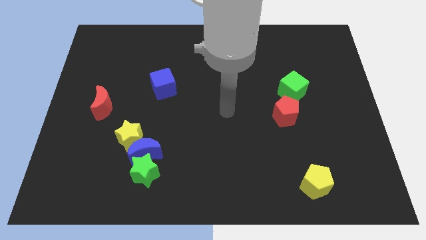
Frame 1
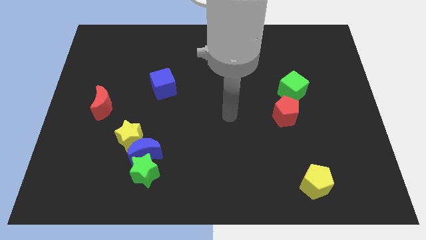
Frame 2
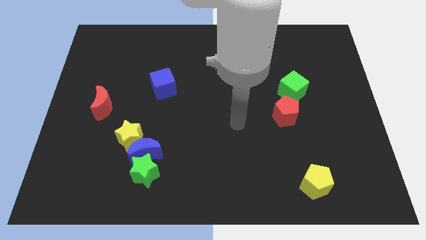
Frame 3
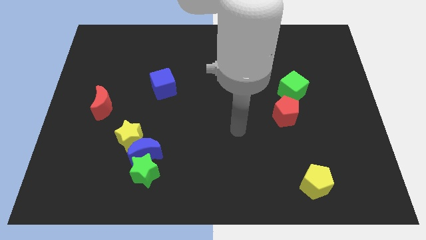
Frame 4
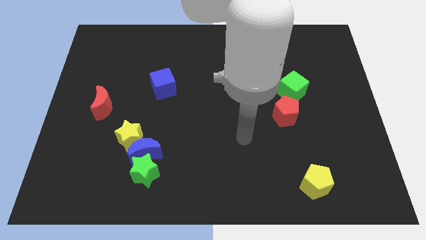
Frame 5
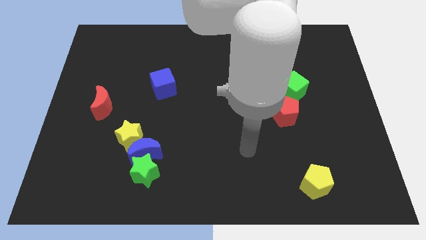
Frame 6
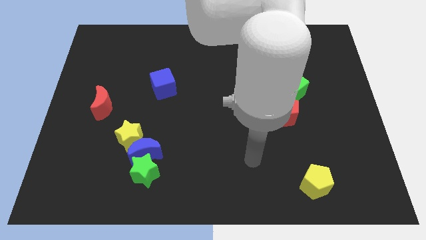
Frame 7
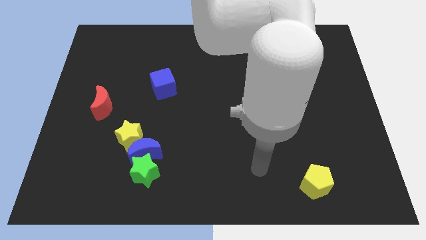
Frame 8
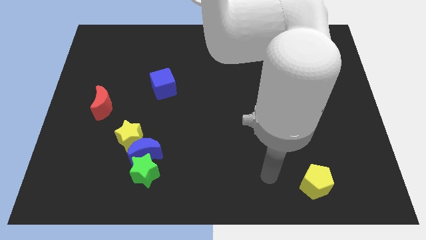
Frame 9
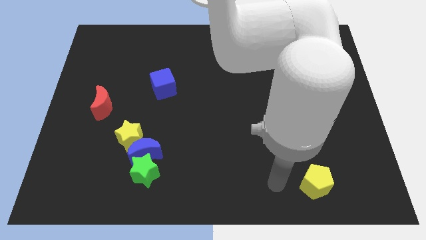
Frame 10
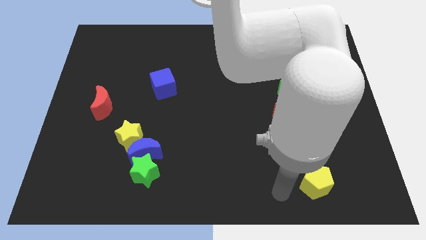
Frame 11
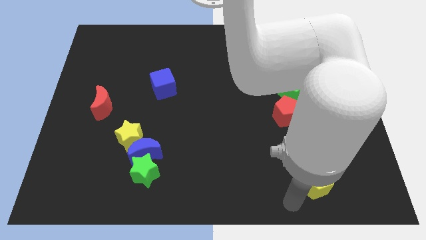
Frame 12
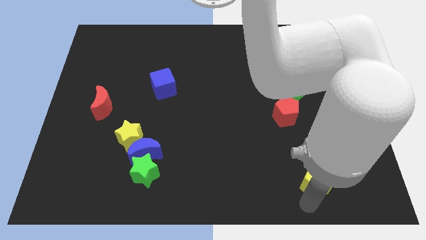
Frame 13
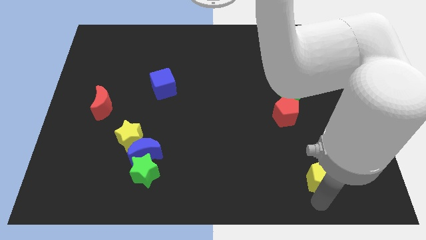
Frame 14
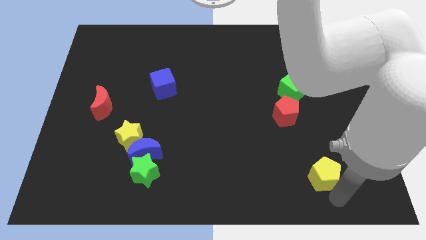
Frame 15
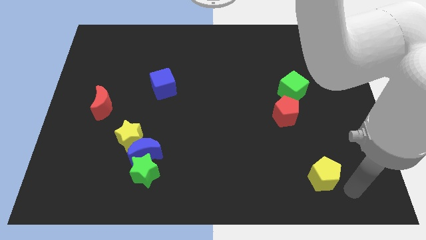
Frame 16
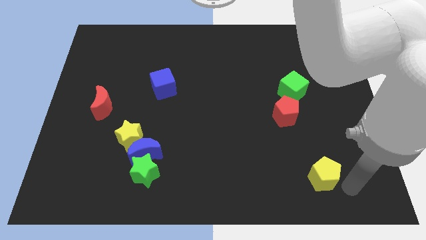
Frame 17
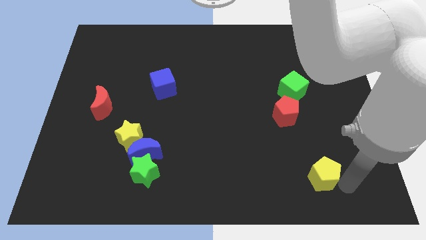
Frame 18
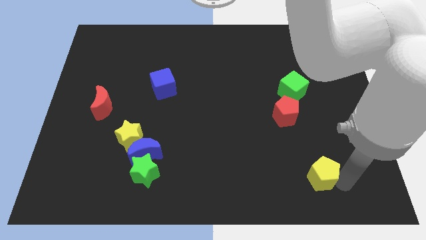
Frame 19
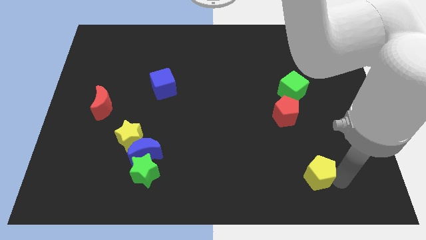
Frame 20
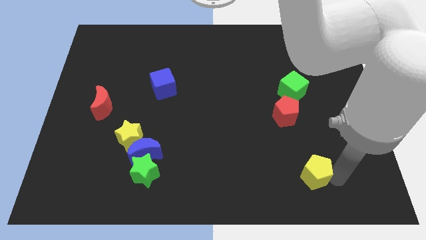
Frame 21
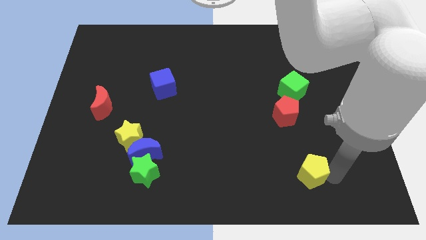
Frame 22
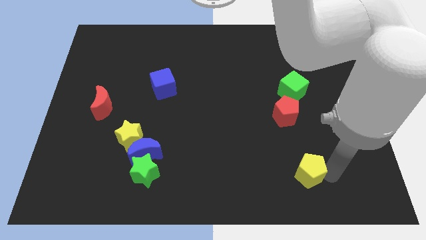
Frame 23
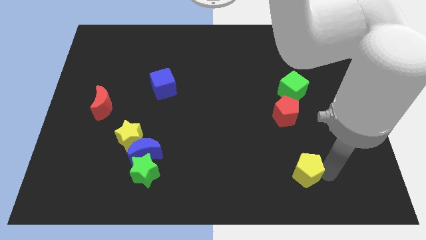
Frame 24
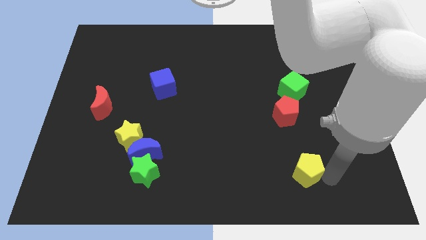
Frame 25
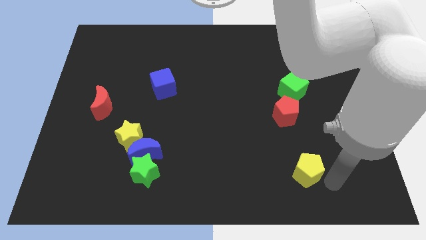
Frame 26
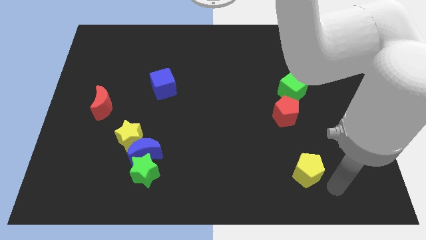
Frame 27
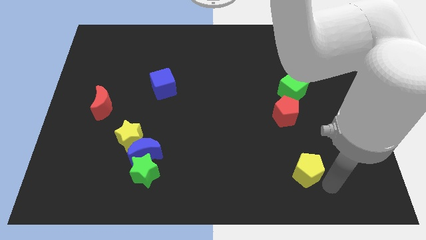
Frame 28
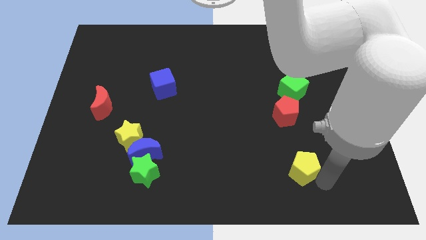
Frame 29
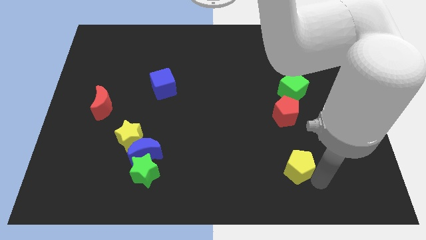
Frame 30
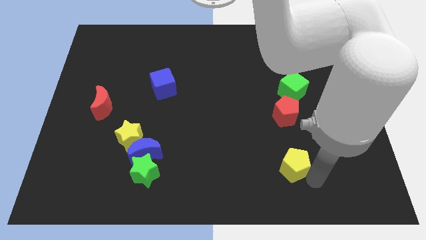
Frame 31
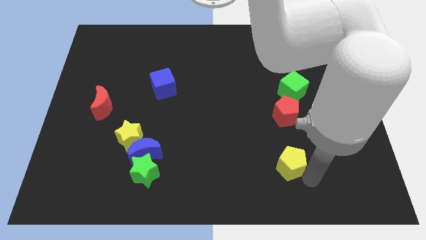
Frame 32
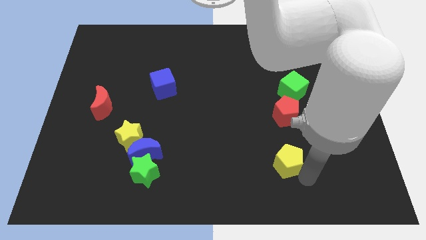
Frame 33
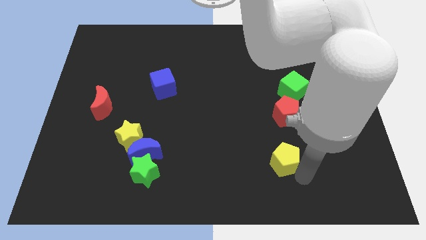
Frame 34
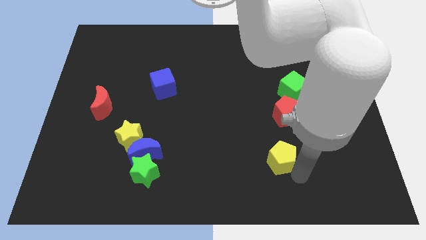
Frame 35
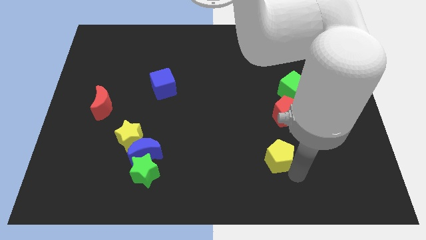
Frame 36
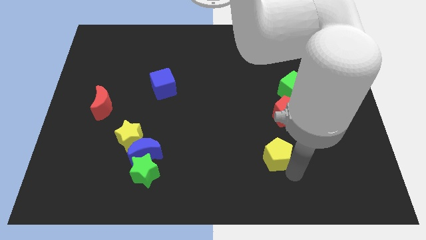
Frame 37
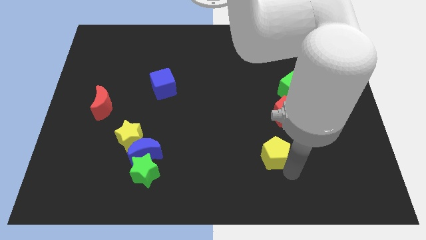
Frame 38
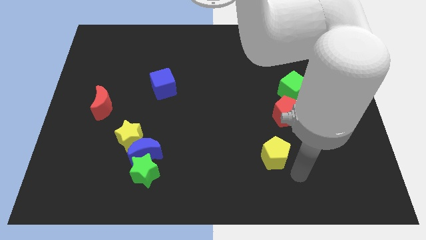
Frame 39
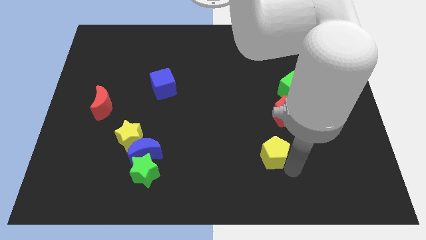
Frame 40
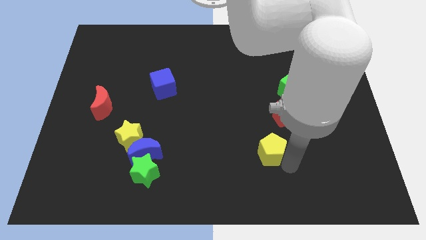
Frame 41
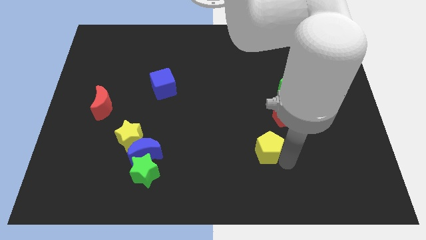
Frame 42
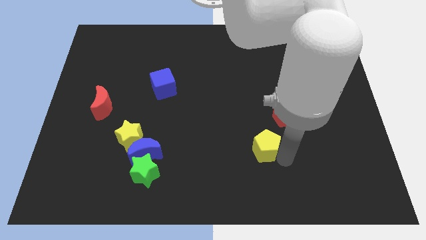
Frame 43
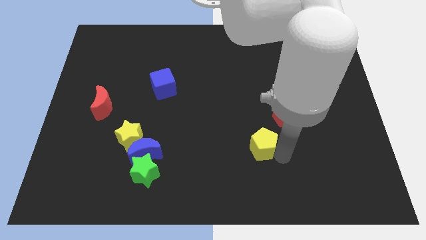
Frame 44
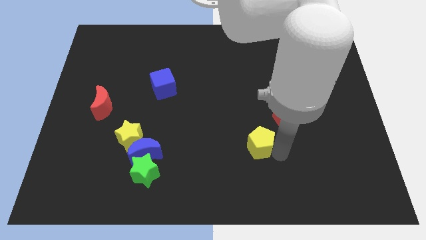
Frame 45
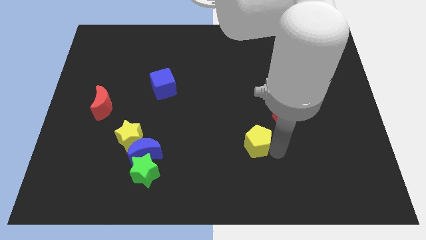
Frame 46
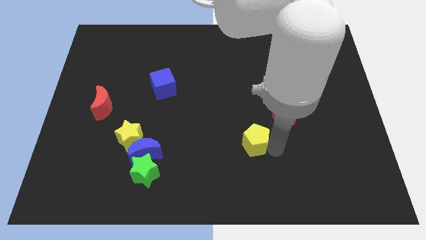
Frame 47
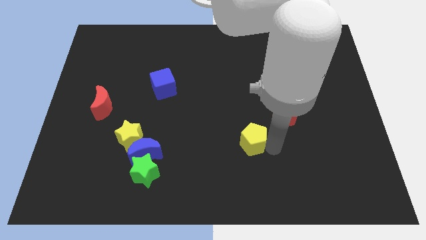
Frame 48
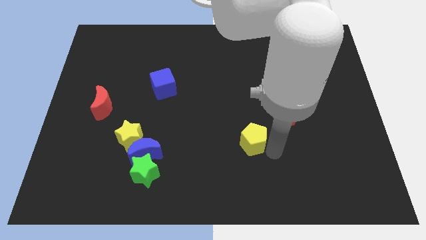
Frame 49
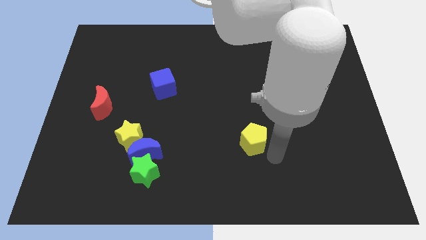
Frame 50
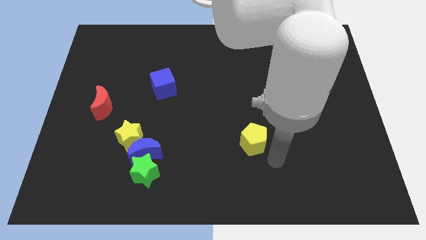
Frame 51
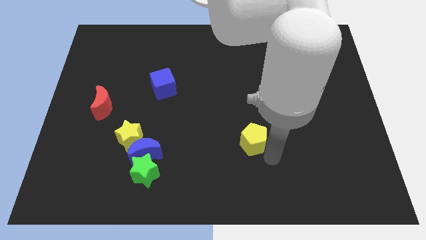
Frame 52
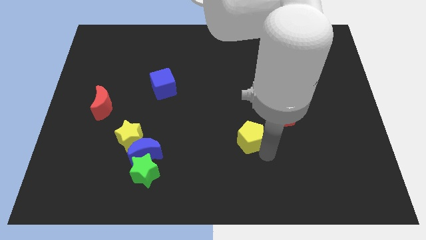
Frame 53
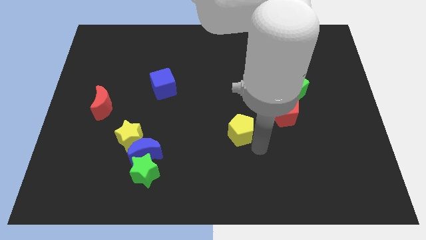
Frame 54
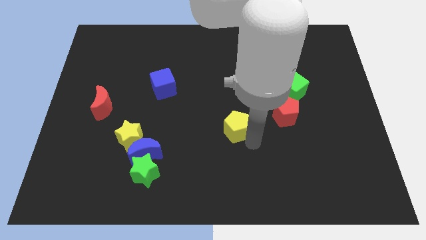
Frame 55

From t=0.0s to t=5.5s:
move the yellow pentagon upwards and then left

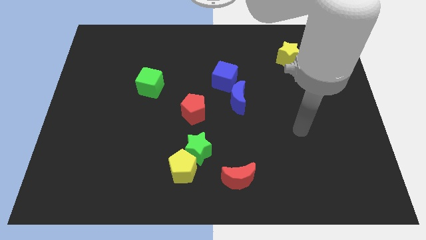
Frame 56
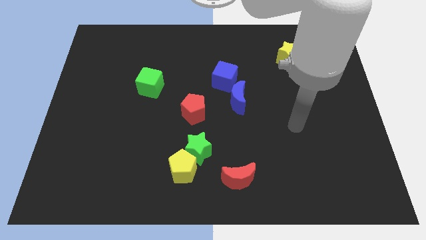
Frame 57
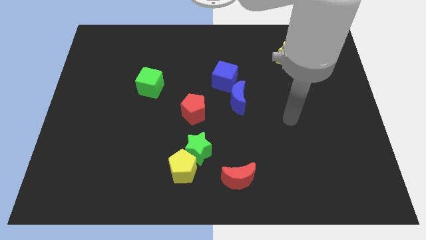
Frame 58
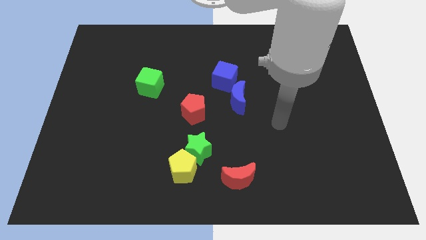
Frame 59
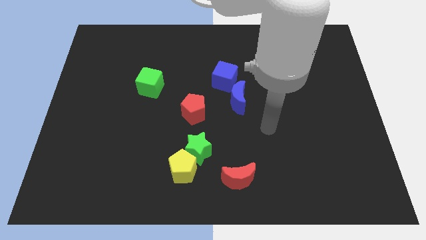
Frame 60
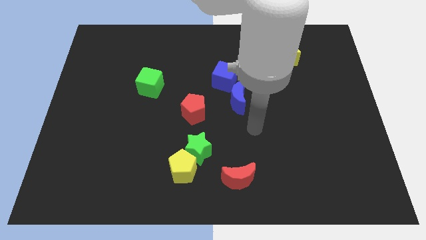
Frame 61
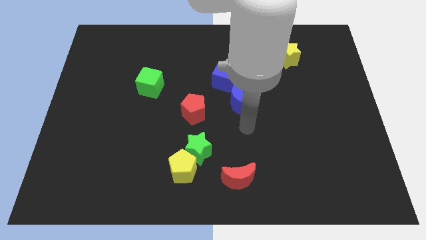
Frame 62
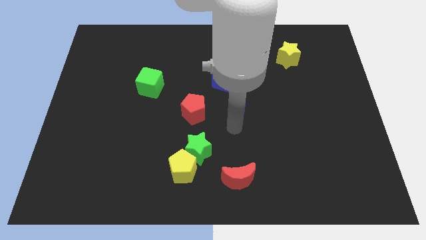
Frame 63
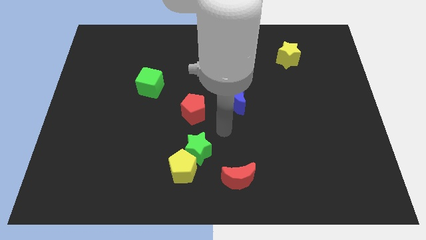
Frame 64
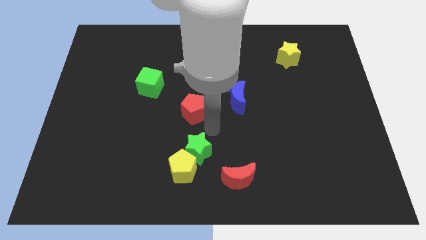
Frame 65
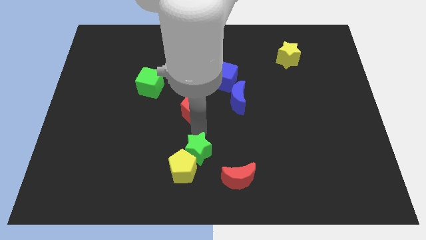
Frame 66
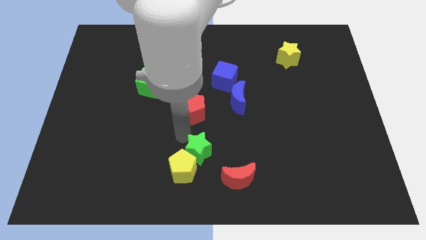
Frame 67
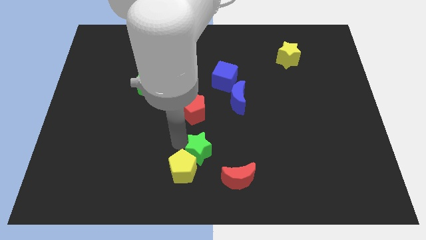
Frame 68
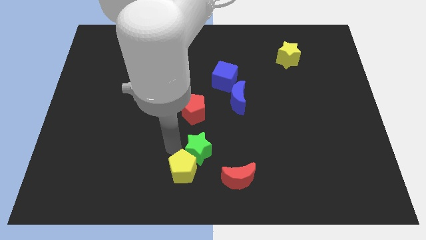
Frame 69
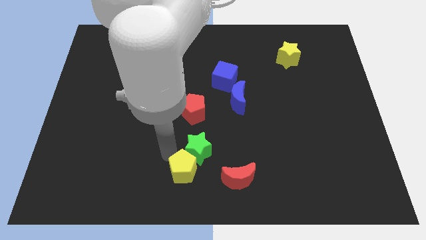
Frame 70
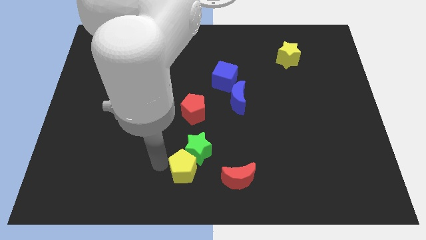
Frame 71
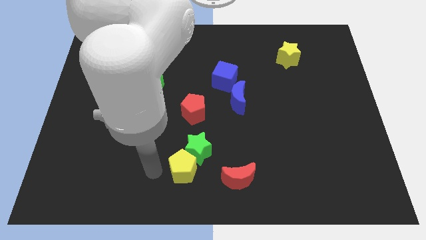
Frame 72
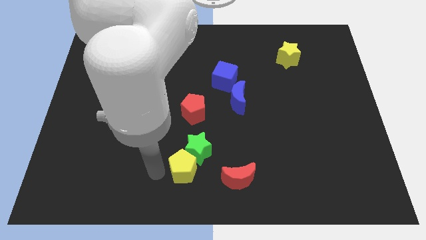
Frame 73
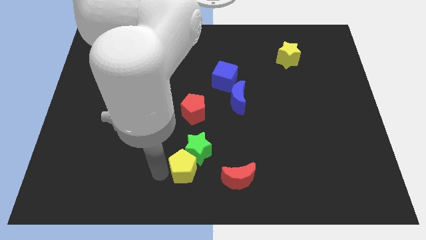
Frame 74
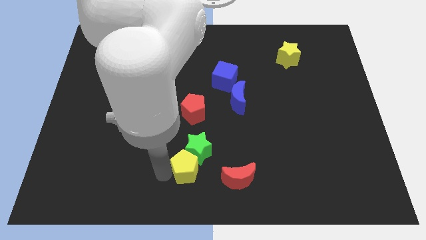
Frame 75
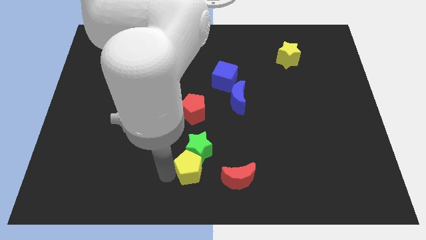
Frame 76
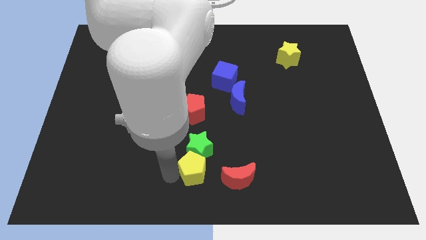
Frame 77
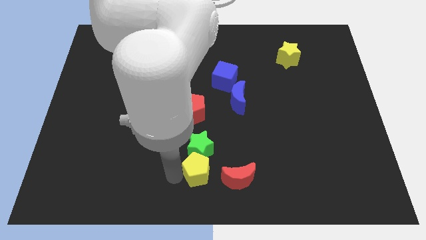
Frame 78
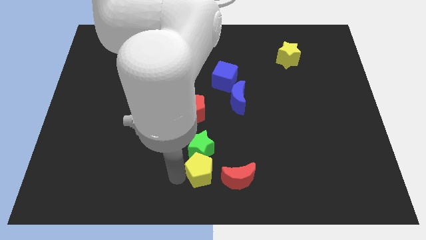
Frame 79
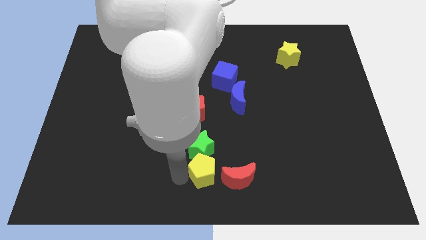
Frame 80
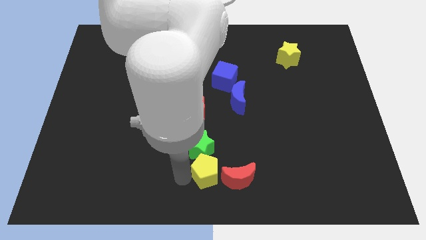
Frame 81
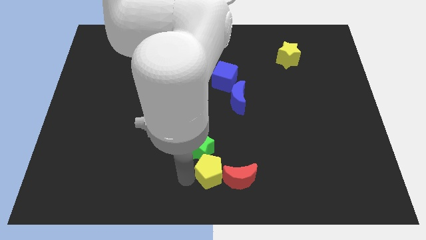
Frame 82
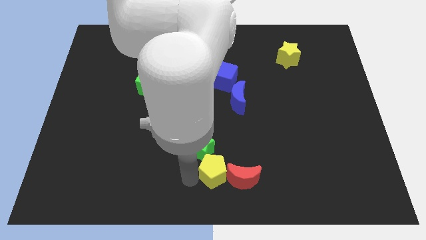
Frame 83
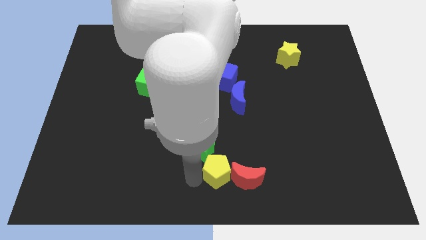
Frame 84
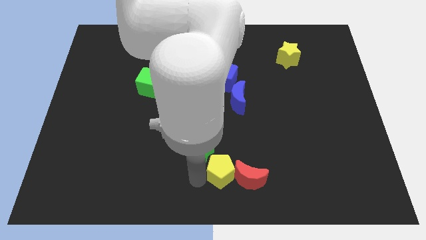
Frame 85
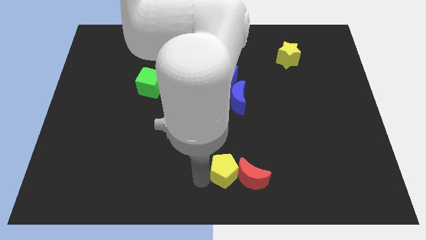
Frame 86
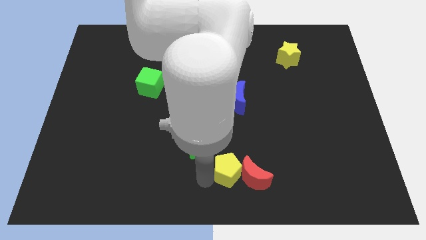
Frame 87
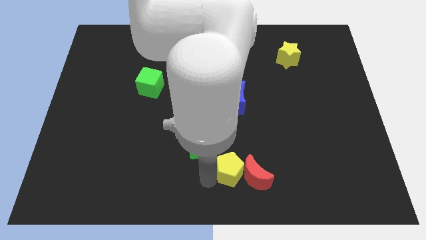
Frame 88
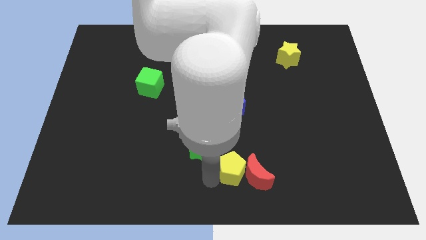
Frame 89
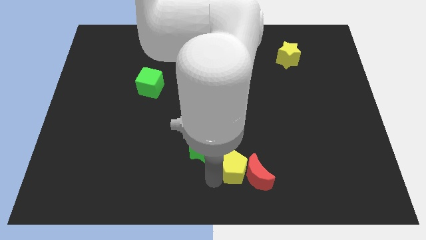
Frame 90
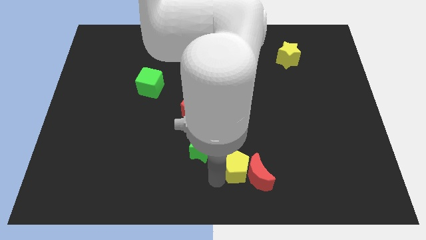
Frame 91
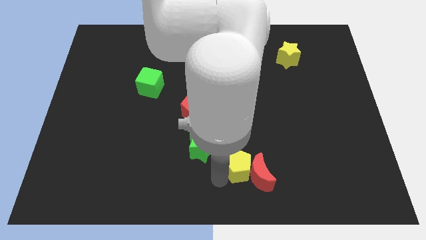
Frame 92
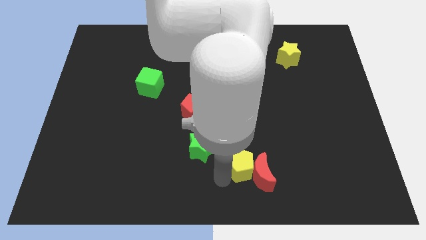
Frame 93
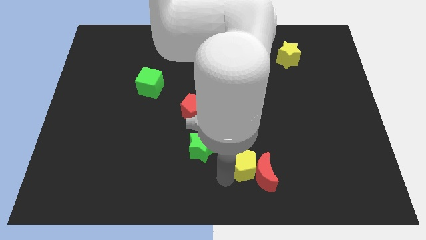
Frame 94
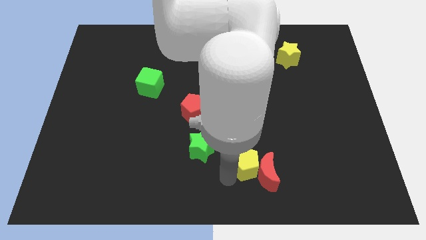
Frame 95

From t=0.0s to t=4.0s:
push the yellow pentagon upwards and then right a little bit
